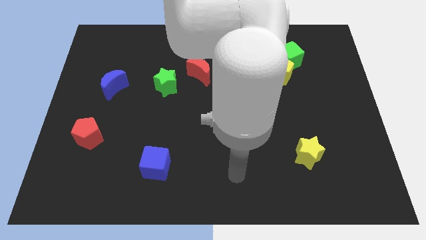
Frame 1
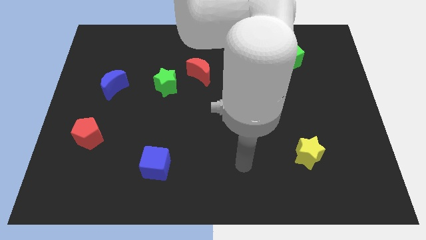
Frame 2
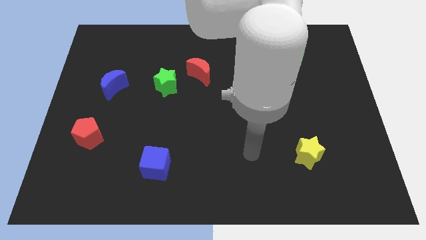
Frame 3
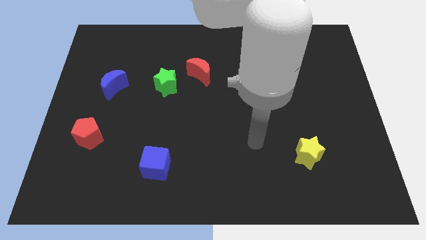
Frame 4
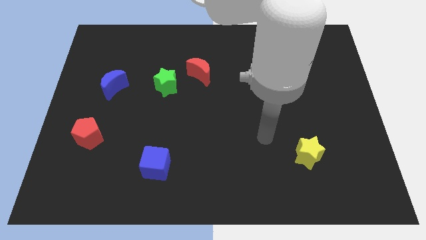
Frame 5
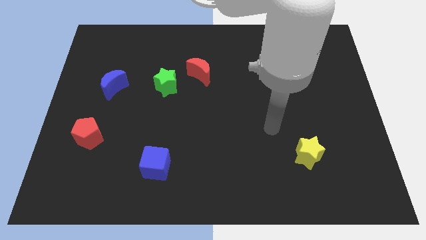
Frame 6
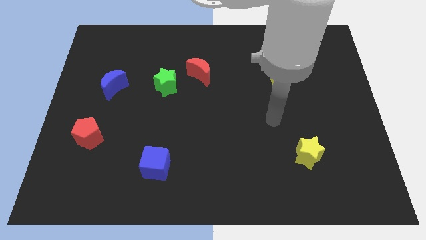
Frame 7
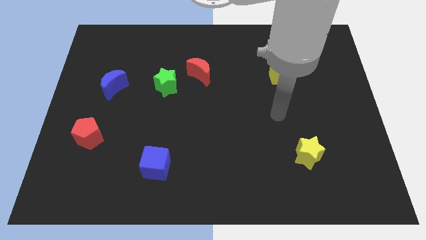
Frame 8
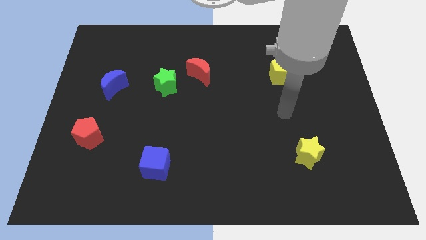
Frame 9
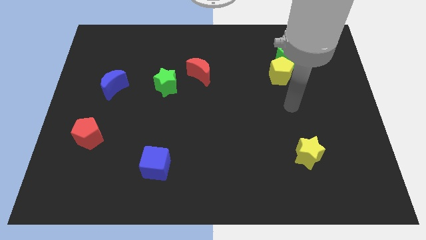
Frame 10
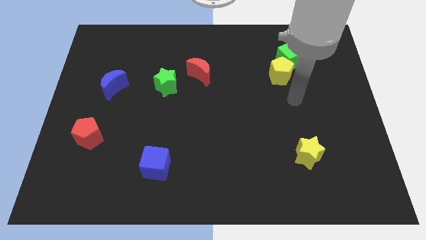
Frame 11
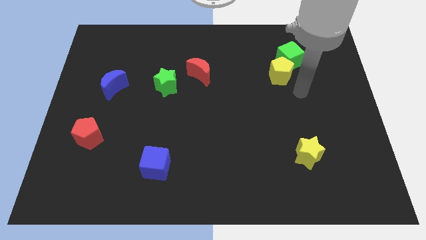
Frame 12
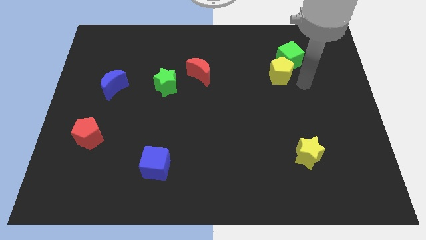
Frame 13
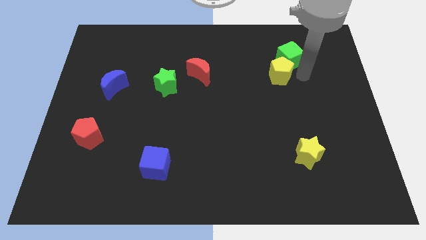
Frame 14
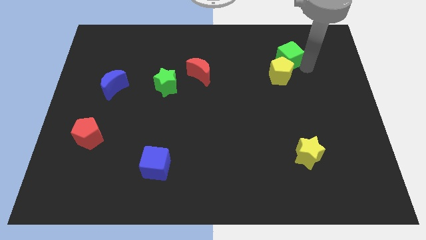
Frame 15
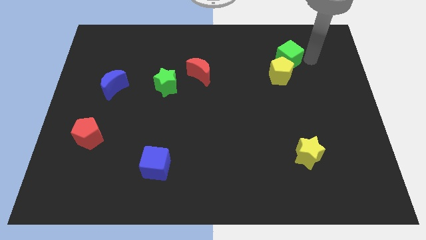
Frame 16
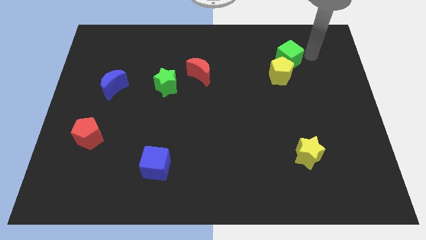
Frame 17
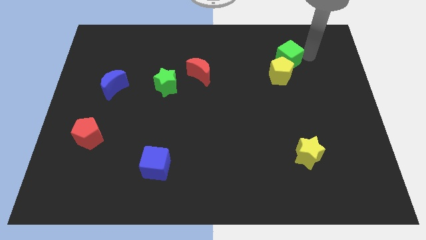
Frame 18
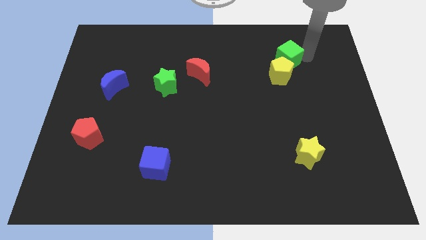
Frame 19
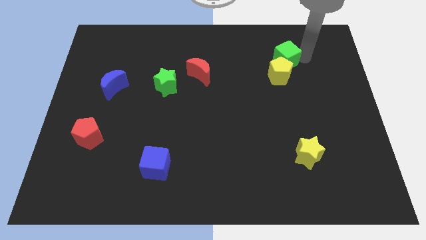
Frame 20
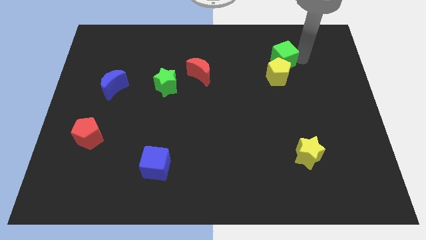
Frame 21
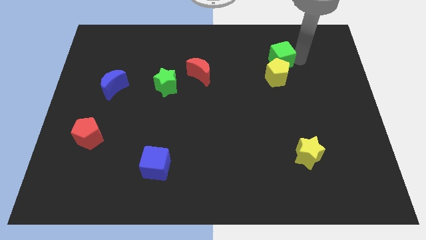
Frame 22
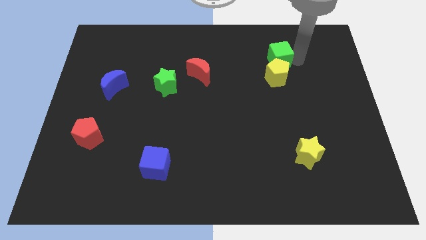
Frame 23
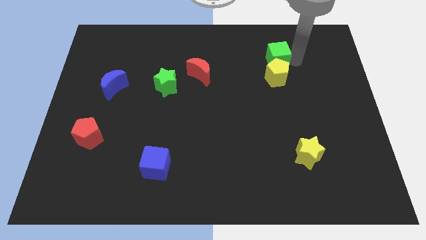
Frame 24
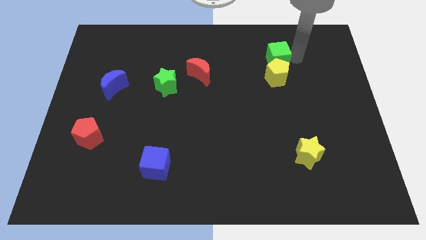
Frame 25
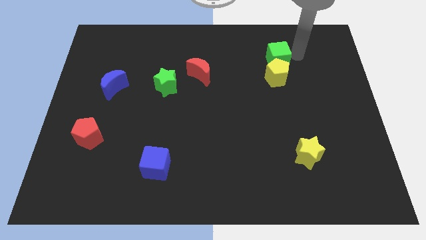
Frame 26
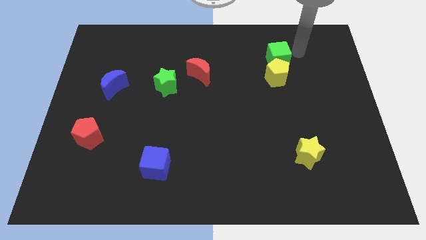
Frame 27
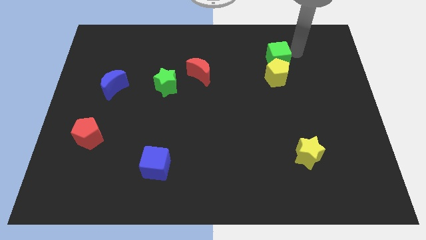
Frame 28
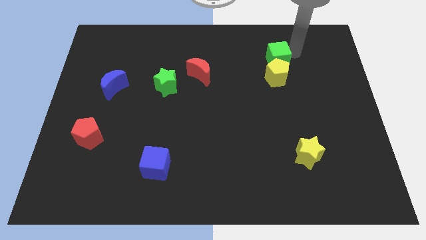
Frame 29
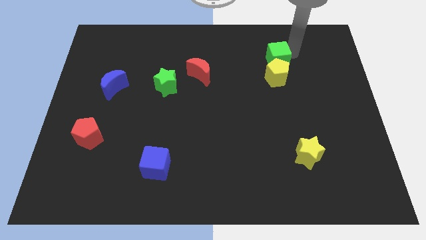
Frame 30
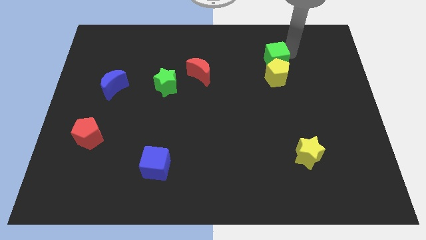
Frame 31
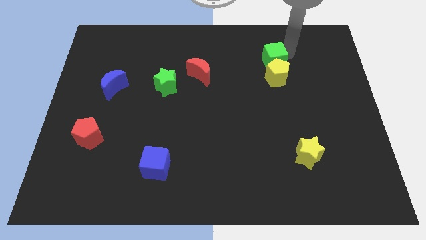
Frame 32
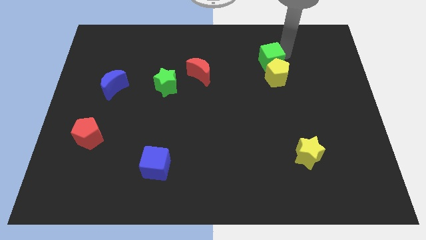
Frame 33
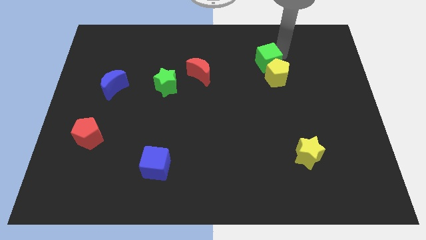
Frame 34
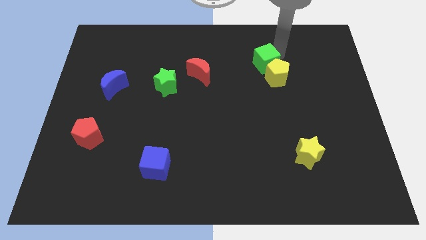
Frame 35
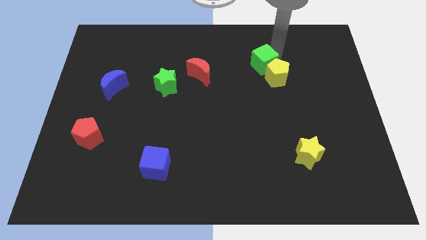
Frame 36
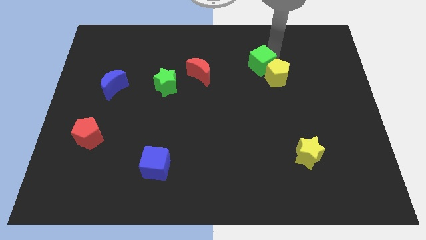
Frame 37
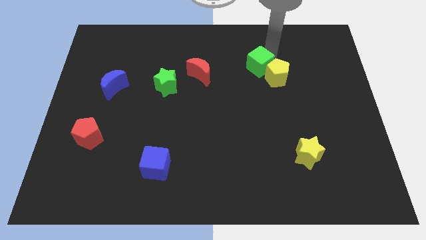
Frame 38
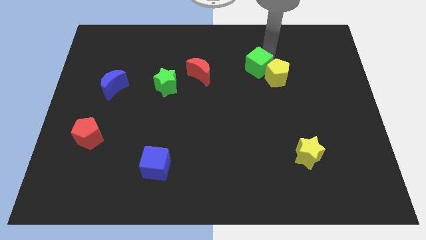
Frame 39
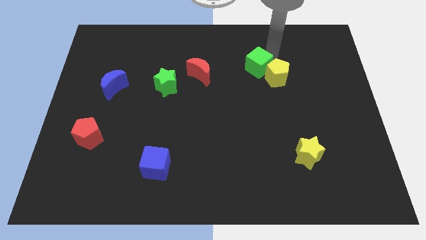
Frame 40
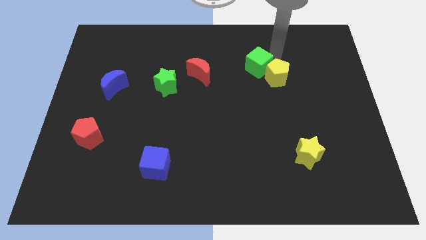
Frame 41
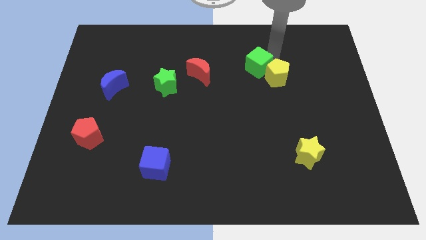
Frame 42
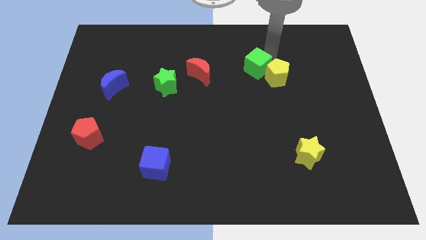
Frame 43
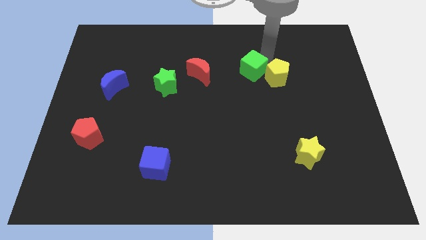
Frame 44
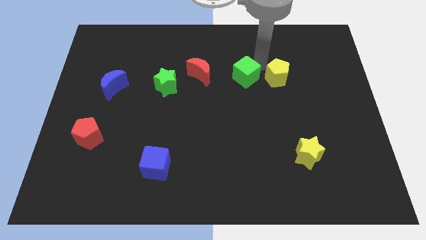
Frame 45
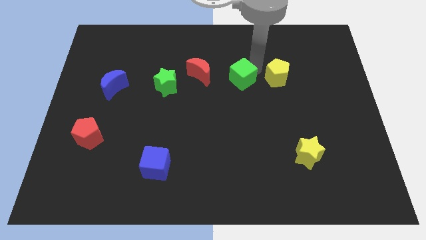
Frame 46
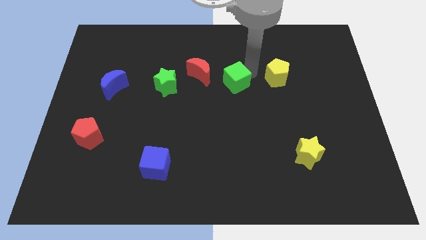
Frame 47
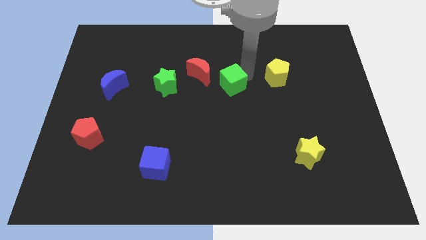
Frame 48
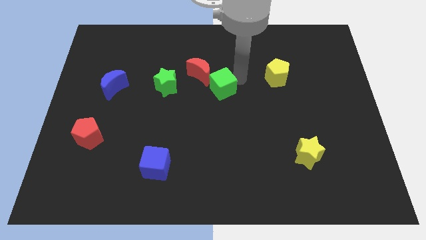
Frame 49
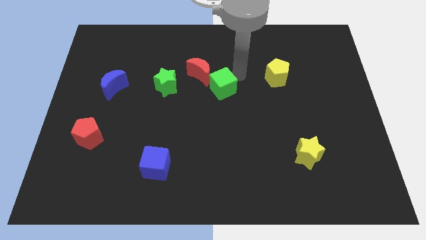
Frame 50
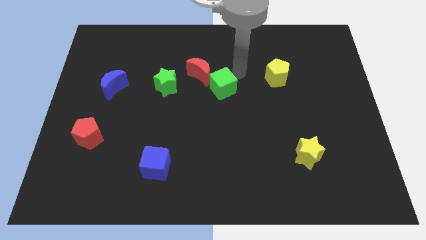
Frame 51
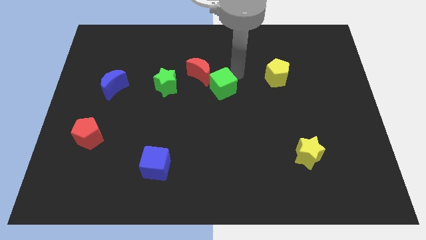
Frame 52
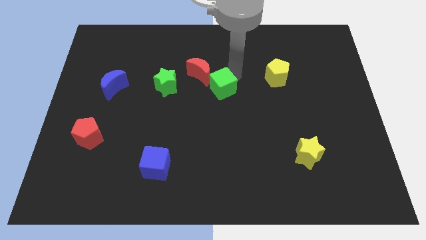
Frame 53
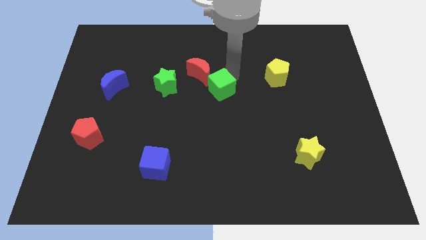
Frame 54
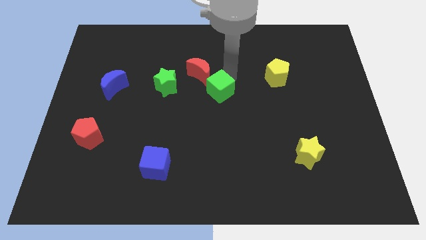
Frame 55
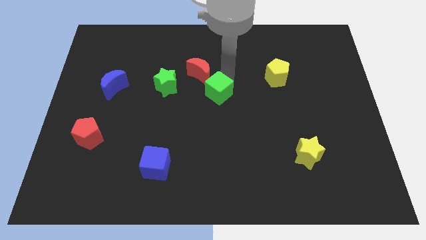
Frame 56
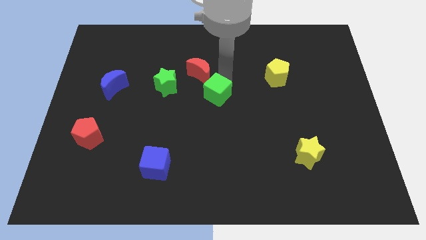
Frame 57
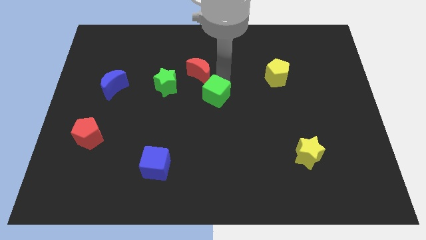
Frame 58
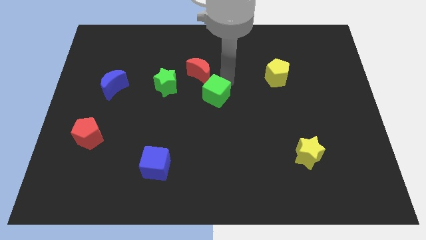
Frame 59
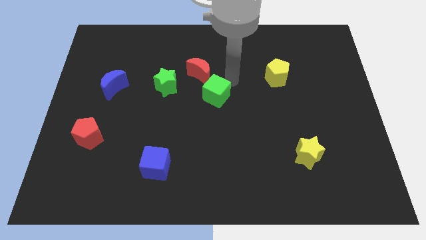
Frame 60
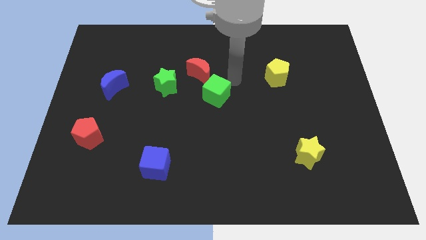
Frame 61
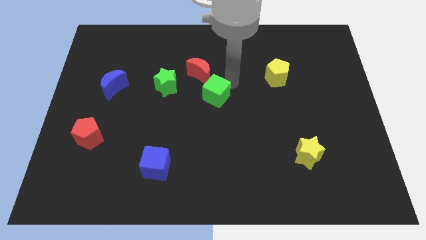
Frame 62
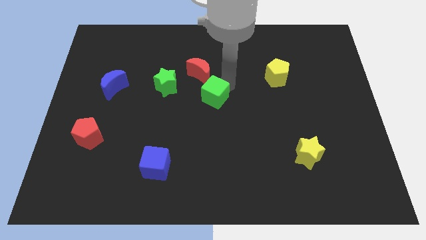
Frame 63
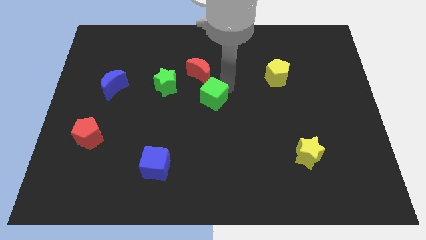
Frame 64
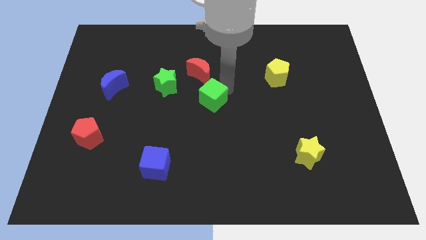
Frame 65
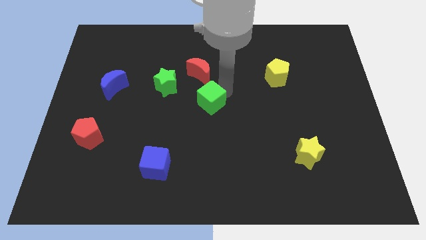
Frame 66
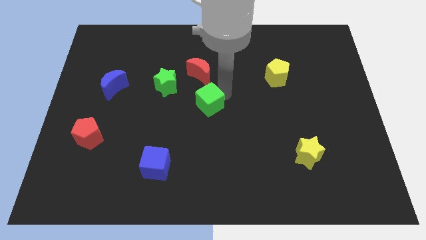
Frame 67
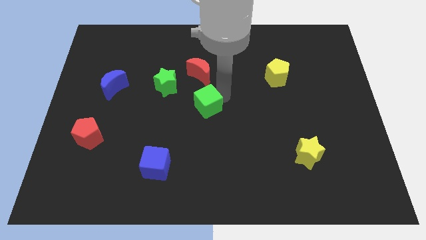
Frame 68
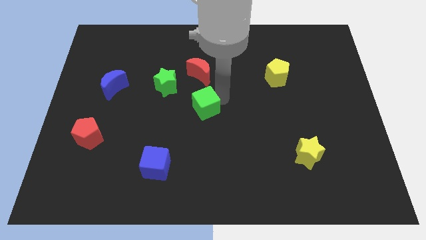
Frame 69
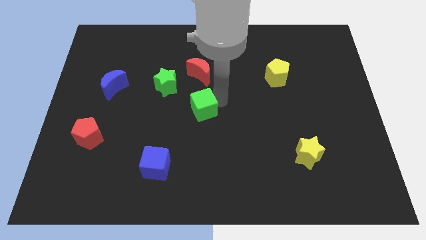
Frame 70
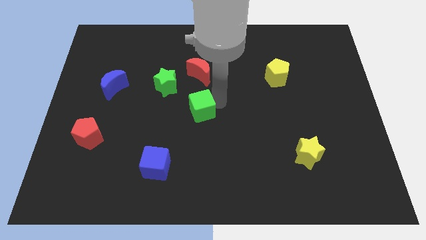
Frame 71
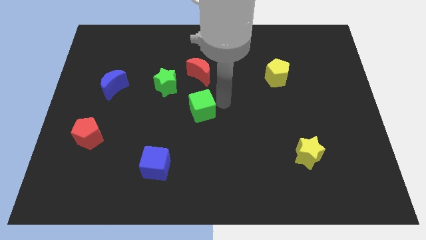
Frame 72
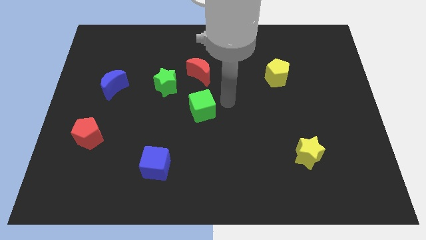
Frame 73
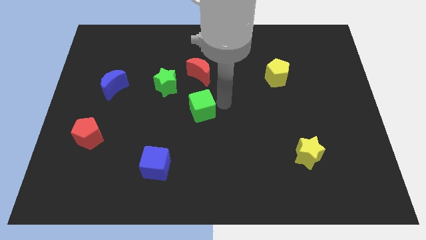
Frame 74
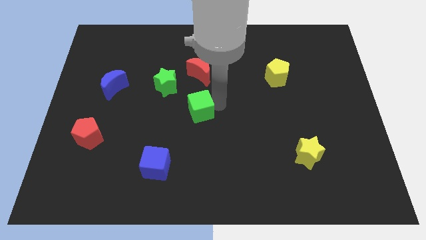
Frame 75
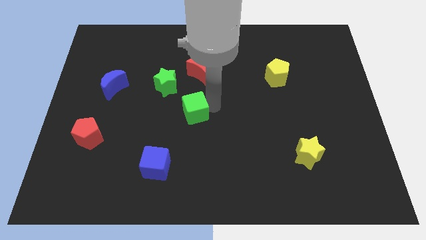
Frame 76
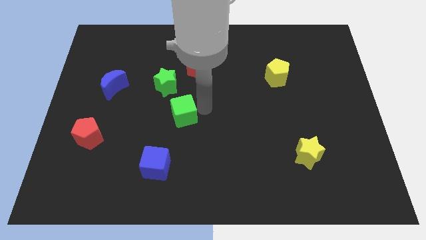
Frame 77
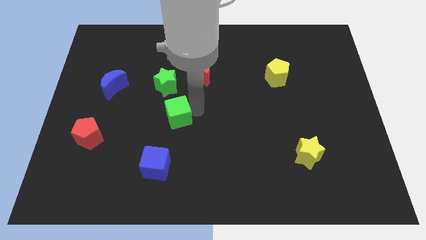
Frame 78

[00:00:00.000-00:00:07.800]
slide the green cube to the top side of the blue cube
